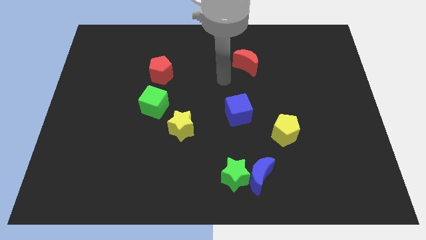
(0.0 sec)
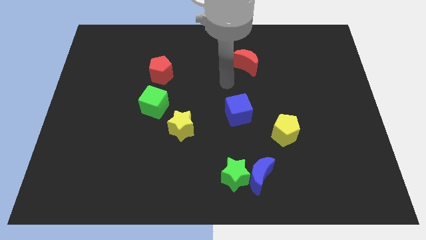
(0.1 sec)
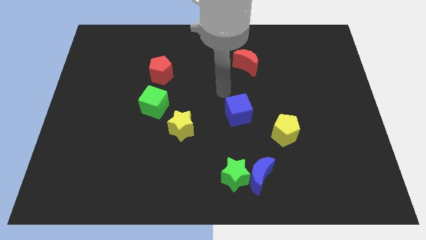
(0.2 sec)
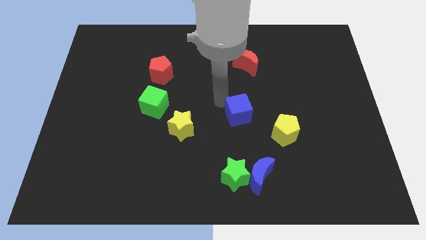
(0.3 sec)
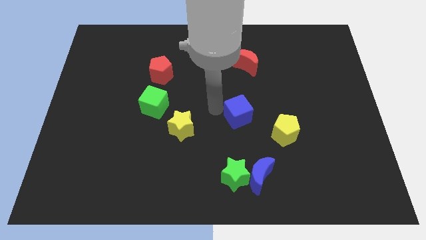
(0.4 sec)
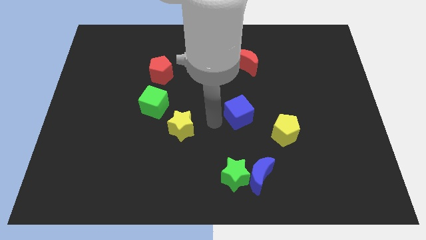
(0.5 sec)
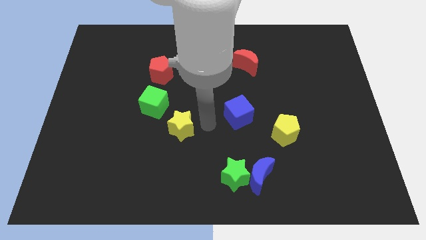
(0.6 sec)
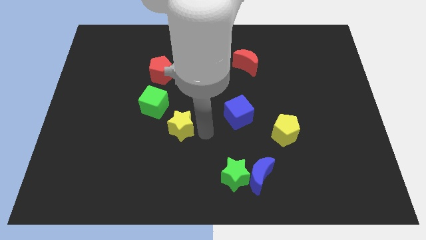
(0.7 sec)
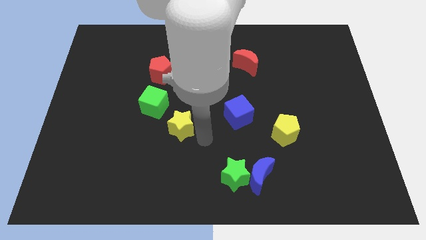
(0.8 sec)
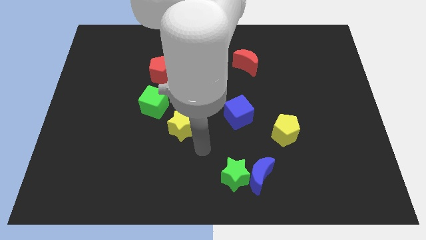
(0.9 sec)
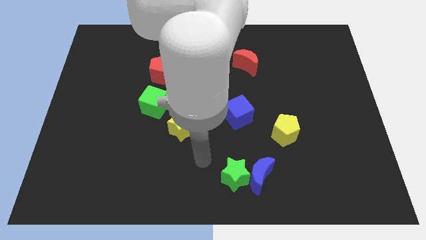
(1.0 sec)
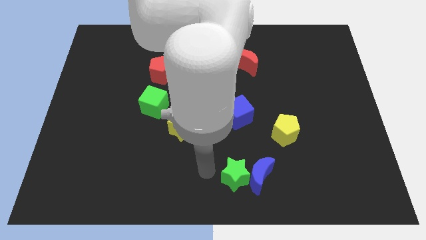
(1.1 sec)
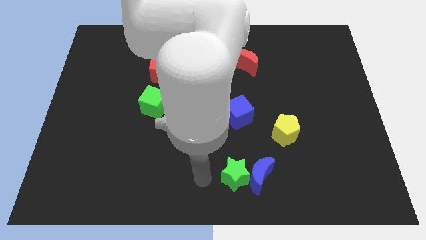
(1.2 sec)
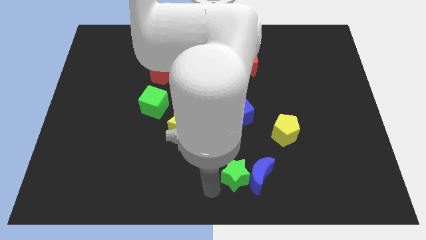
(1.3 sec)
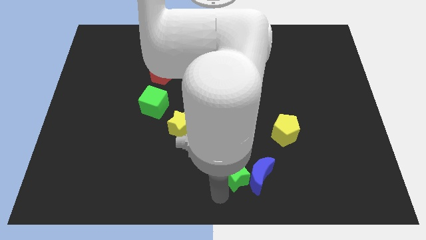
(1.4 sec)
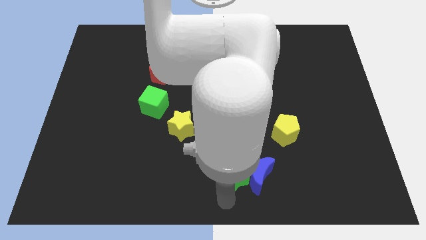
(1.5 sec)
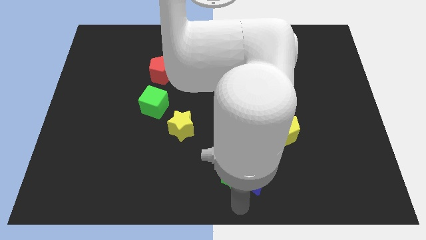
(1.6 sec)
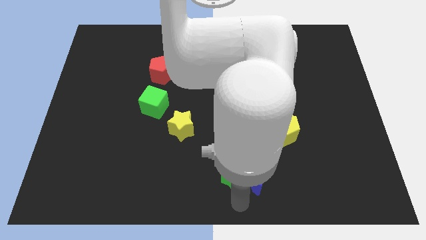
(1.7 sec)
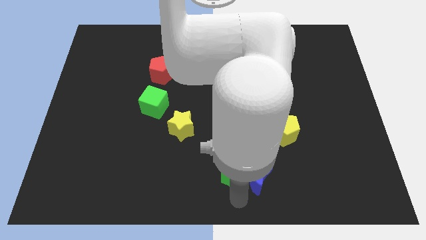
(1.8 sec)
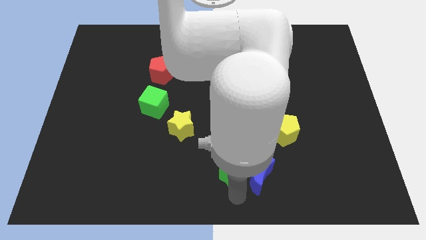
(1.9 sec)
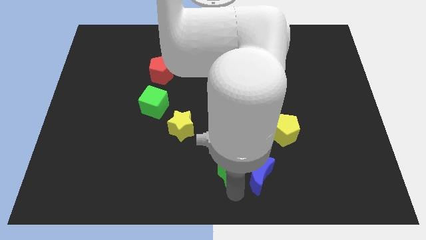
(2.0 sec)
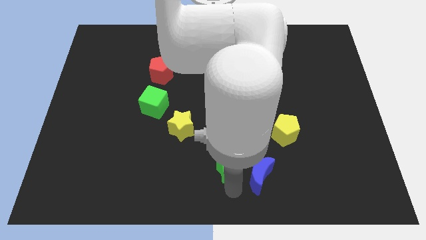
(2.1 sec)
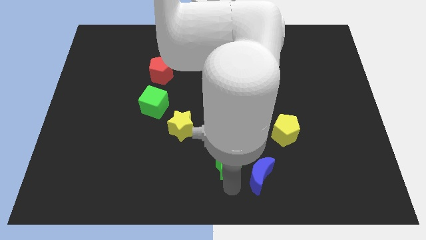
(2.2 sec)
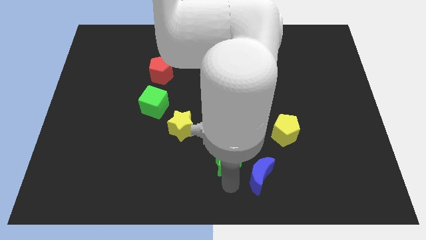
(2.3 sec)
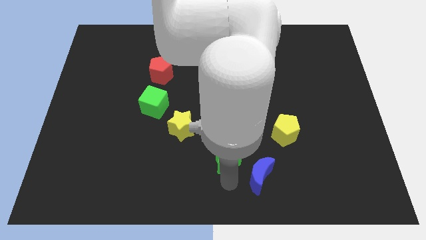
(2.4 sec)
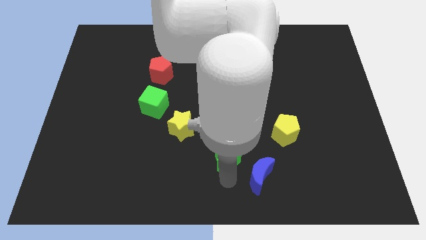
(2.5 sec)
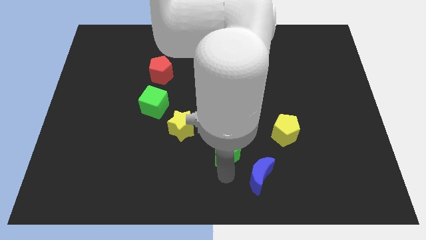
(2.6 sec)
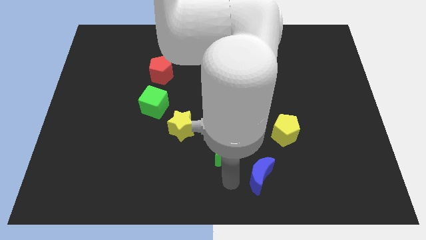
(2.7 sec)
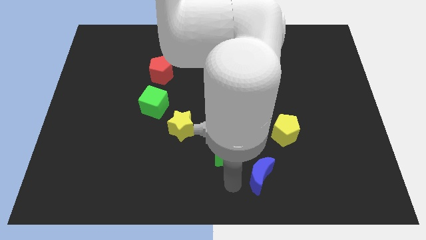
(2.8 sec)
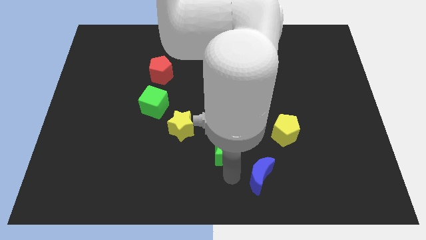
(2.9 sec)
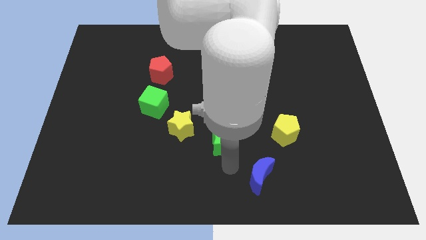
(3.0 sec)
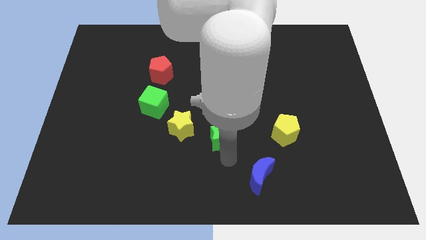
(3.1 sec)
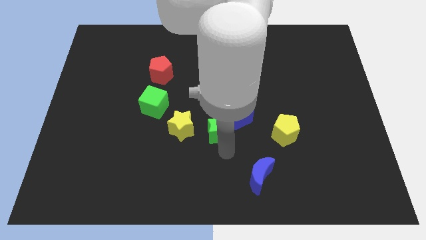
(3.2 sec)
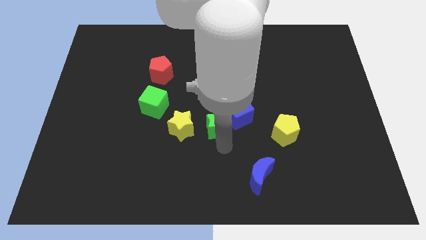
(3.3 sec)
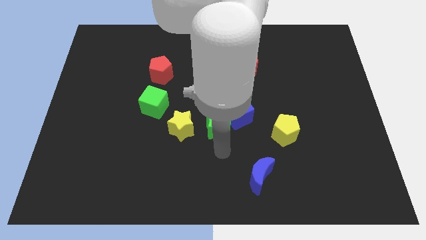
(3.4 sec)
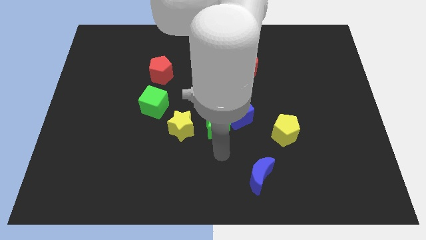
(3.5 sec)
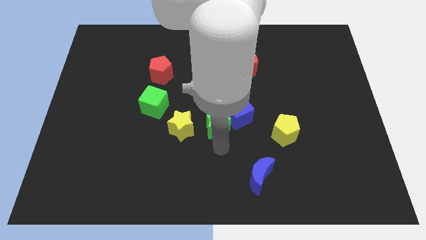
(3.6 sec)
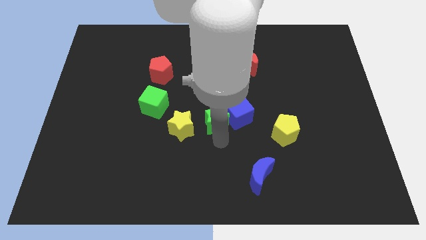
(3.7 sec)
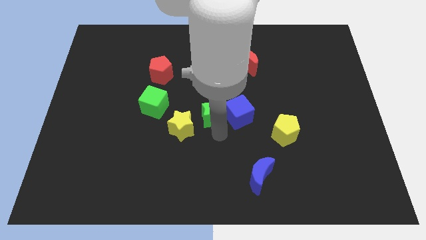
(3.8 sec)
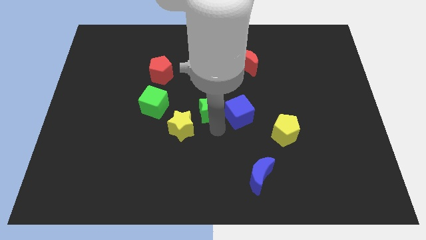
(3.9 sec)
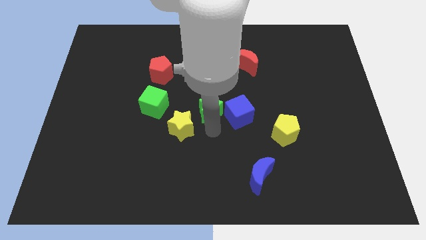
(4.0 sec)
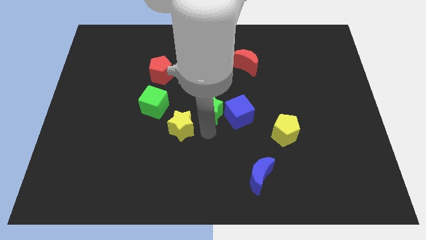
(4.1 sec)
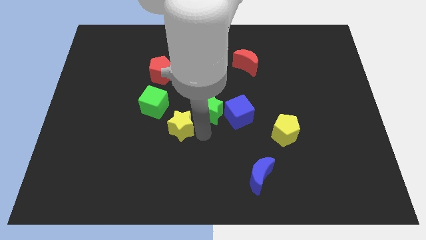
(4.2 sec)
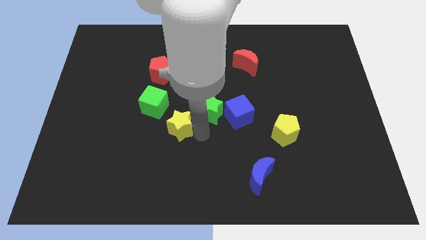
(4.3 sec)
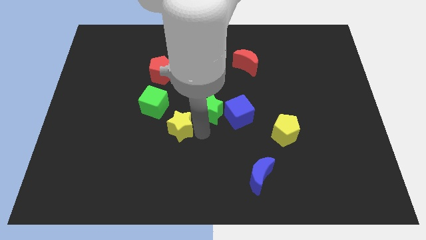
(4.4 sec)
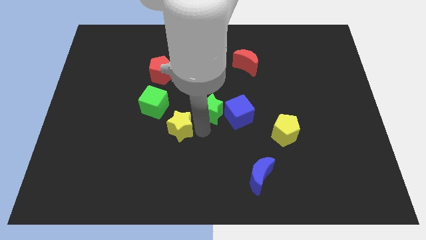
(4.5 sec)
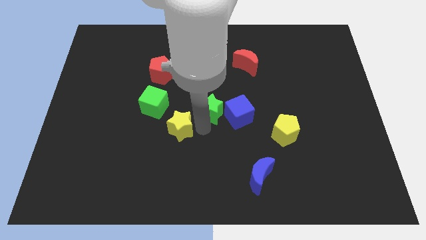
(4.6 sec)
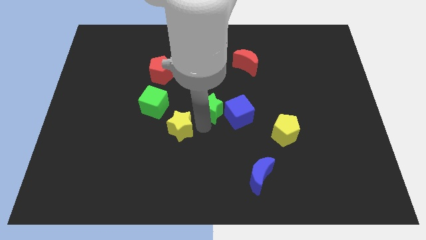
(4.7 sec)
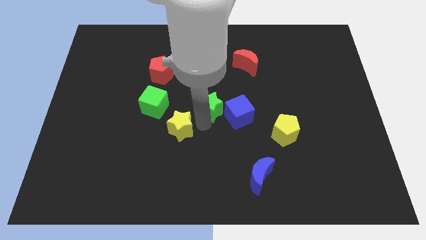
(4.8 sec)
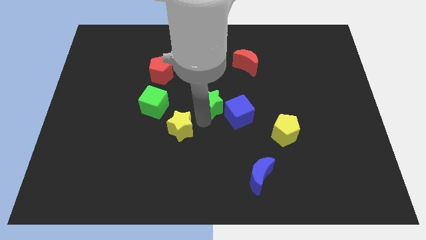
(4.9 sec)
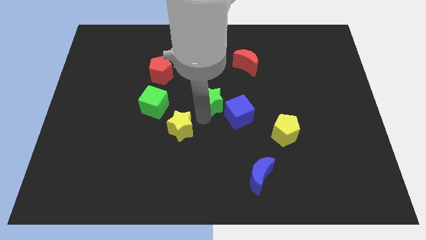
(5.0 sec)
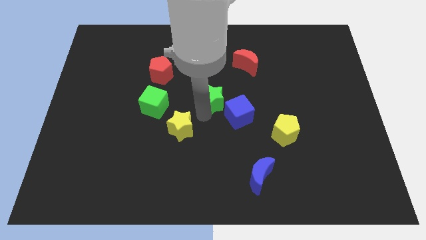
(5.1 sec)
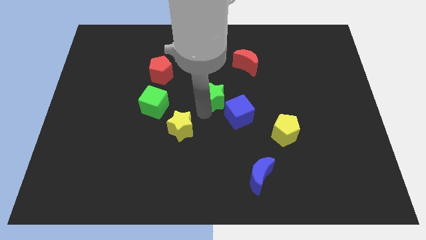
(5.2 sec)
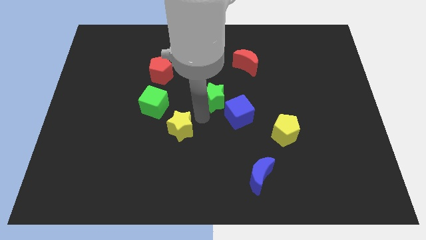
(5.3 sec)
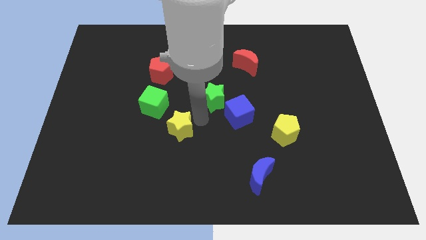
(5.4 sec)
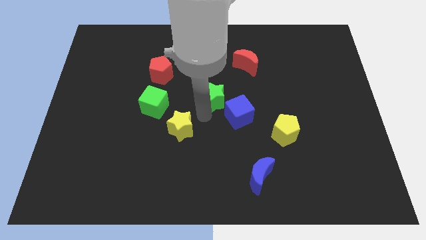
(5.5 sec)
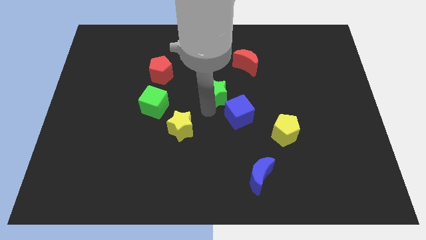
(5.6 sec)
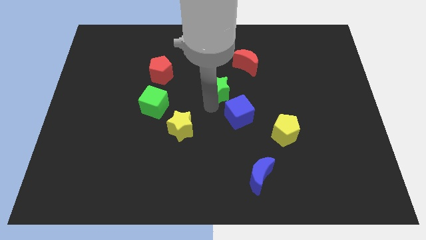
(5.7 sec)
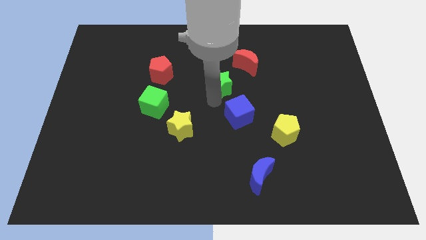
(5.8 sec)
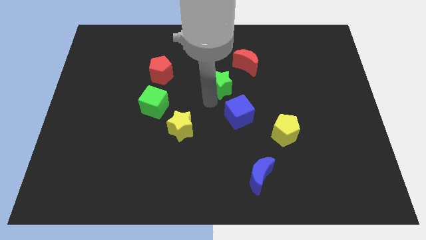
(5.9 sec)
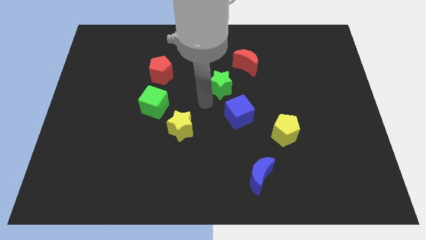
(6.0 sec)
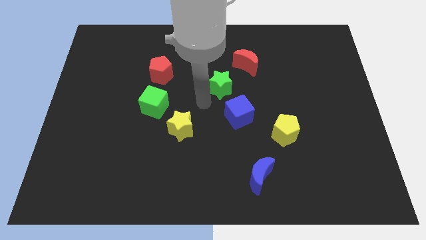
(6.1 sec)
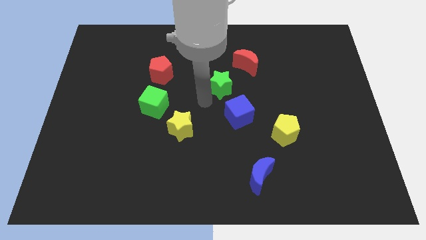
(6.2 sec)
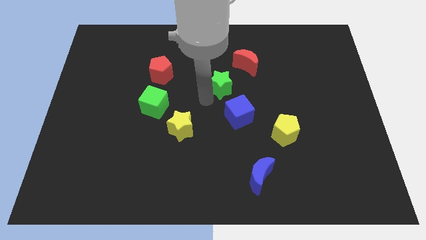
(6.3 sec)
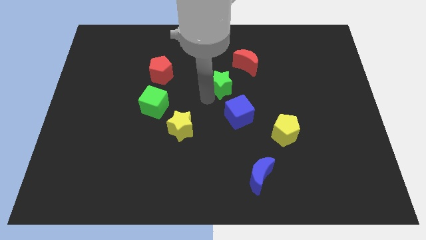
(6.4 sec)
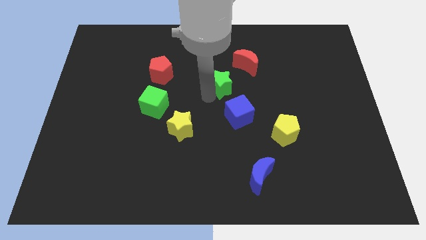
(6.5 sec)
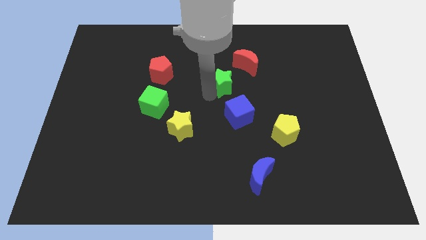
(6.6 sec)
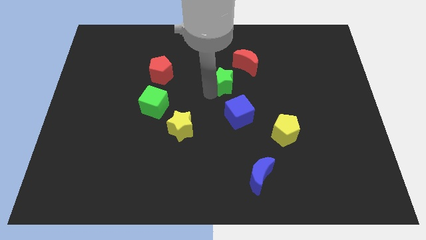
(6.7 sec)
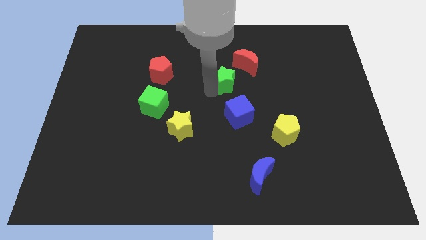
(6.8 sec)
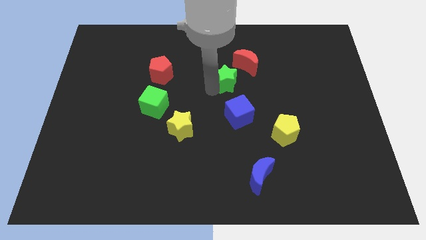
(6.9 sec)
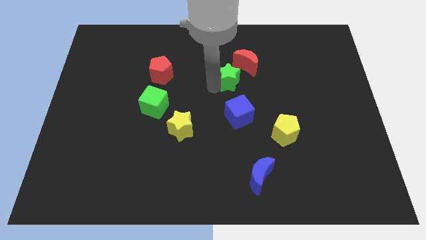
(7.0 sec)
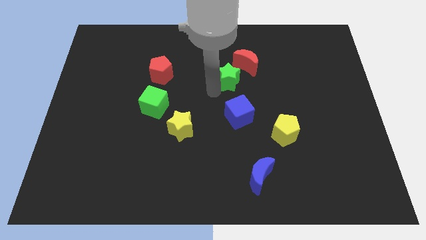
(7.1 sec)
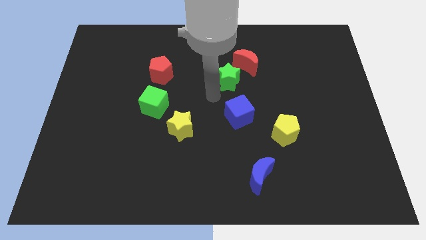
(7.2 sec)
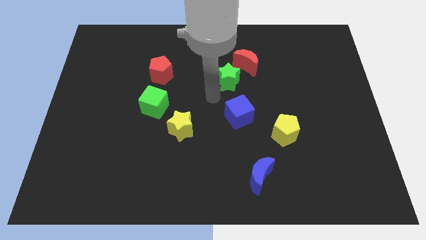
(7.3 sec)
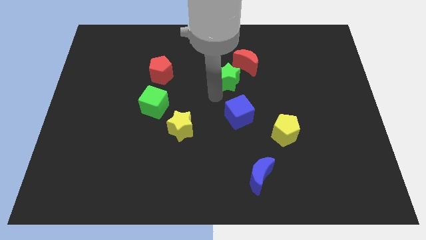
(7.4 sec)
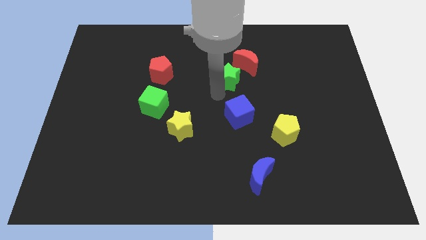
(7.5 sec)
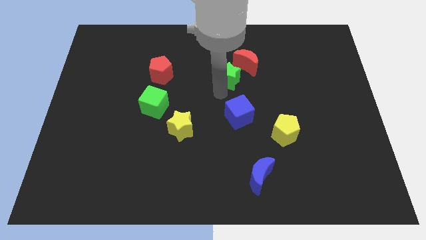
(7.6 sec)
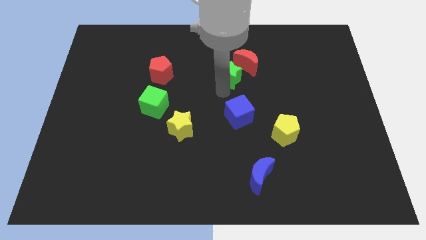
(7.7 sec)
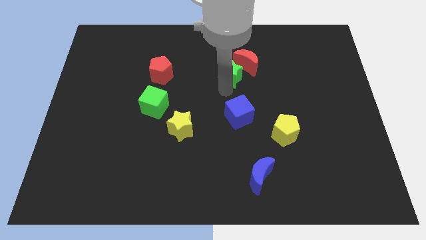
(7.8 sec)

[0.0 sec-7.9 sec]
move the green star close to the red moon
